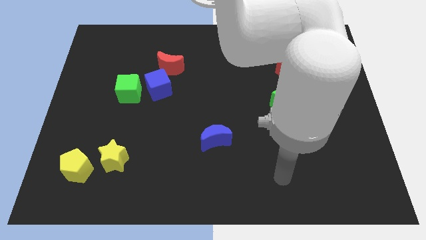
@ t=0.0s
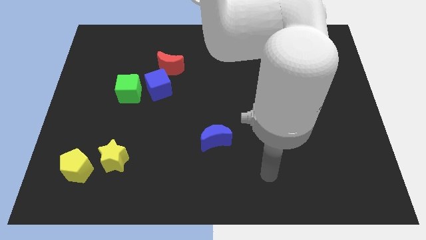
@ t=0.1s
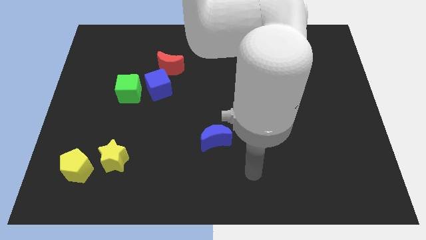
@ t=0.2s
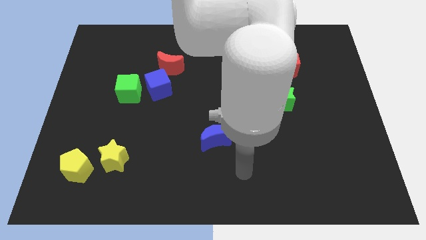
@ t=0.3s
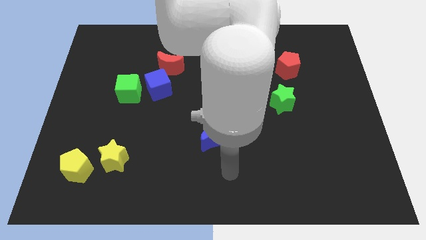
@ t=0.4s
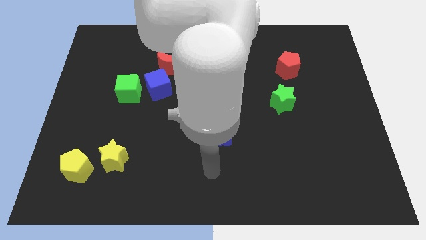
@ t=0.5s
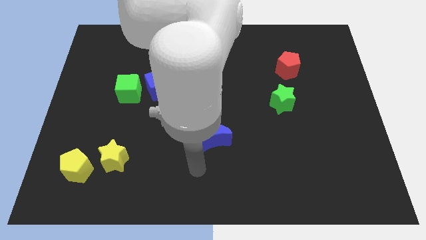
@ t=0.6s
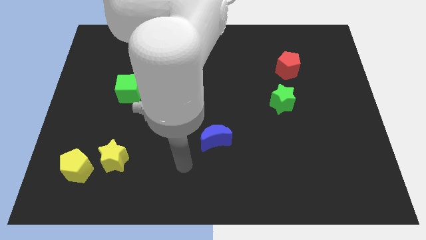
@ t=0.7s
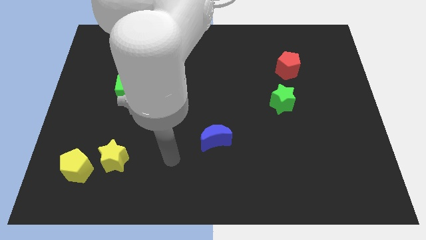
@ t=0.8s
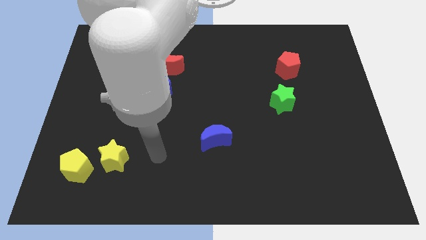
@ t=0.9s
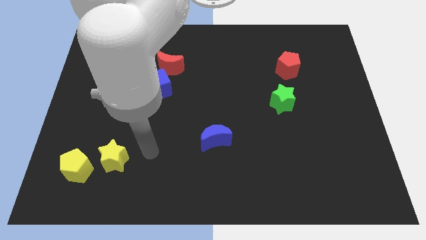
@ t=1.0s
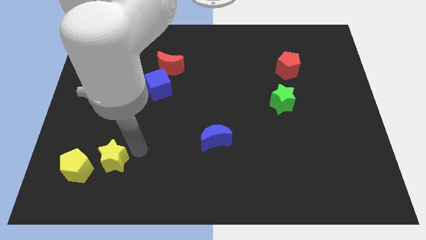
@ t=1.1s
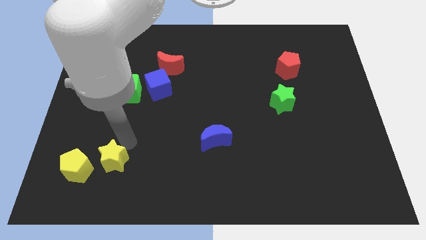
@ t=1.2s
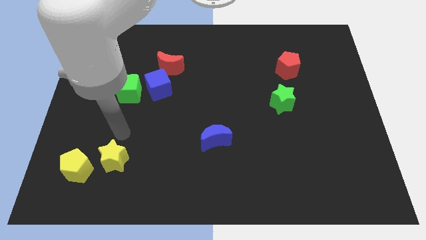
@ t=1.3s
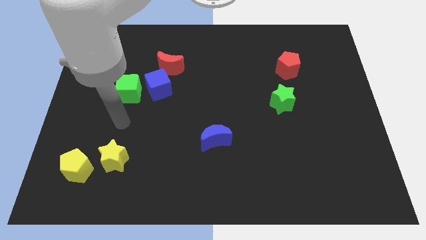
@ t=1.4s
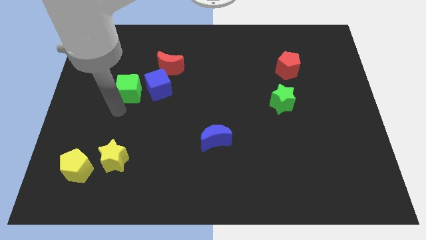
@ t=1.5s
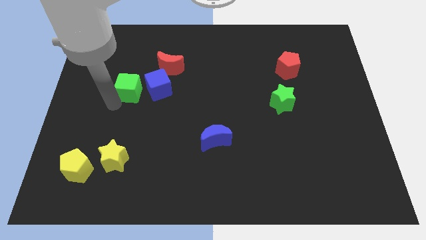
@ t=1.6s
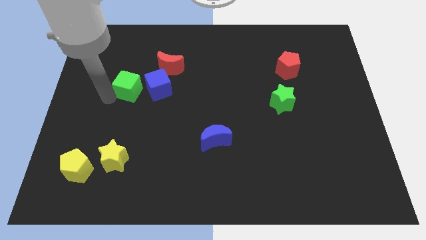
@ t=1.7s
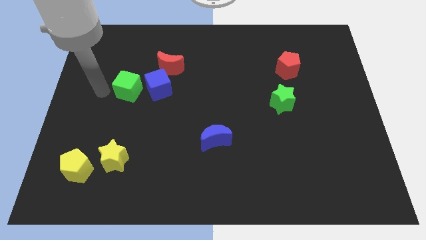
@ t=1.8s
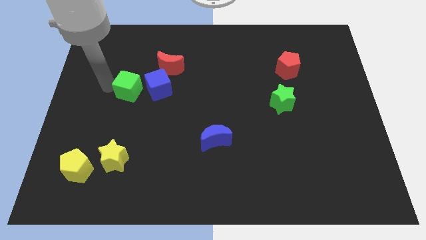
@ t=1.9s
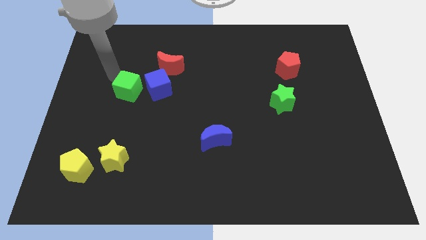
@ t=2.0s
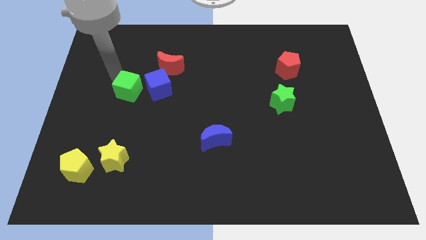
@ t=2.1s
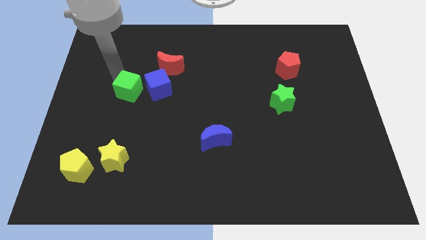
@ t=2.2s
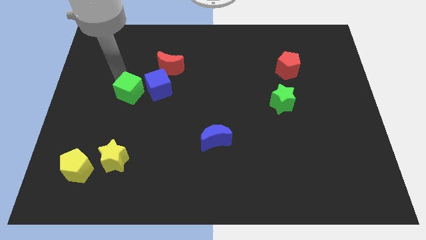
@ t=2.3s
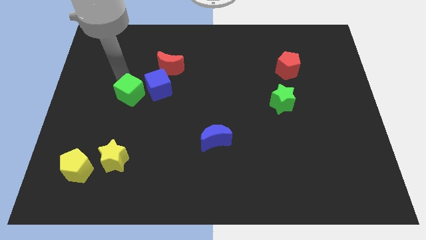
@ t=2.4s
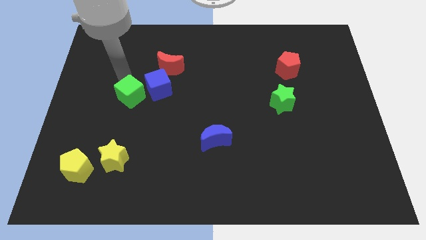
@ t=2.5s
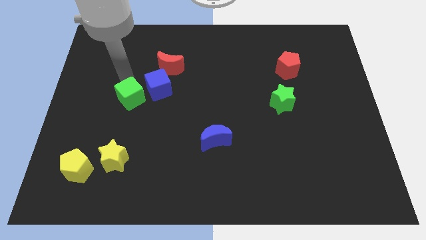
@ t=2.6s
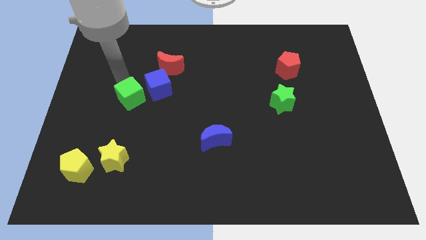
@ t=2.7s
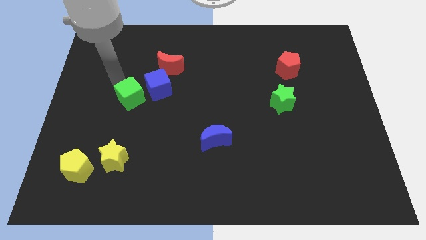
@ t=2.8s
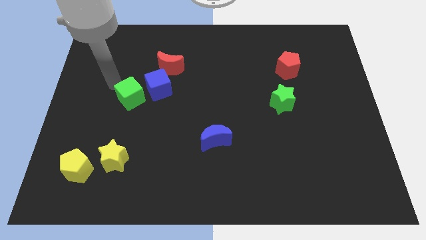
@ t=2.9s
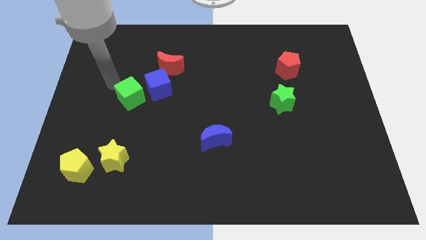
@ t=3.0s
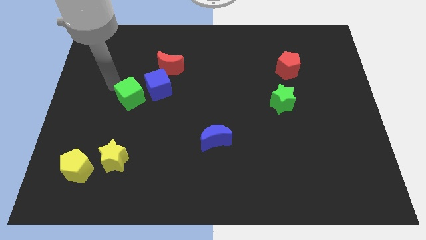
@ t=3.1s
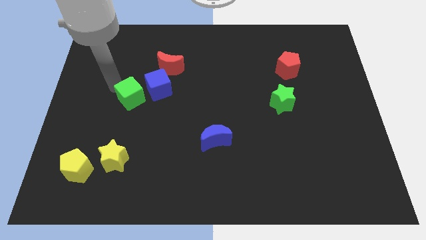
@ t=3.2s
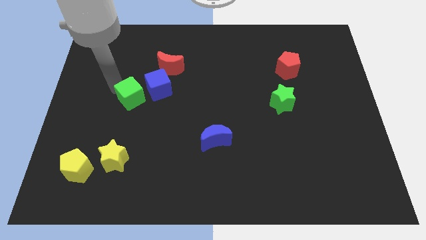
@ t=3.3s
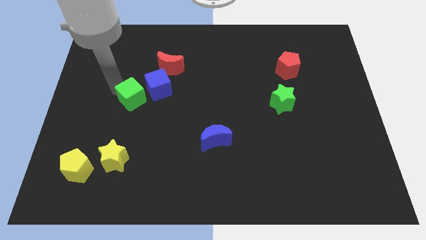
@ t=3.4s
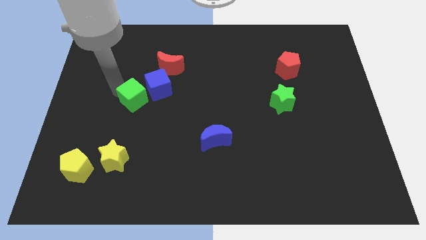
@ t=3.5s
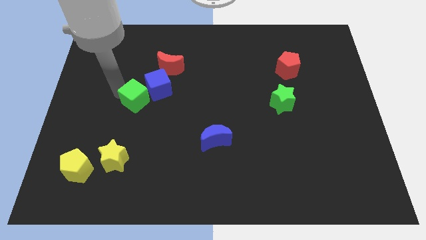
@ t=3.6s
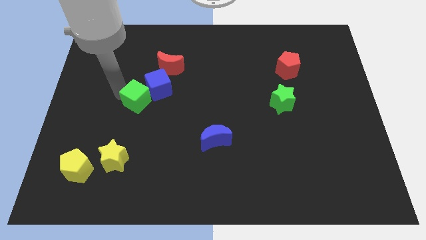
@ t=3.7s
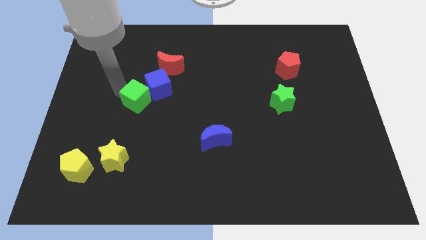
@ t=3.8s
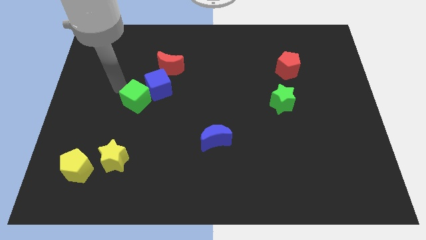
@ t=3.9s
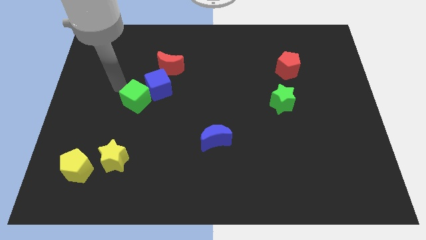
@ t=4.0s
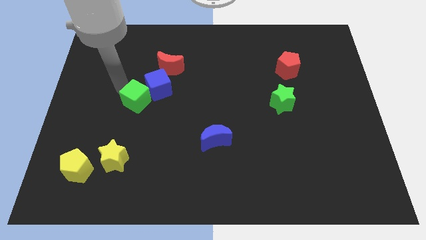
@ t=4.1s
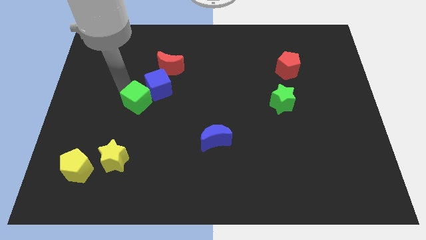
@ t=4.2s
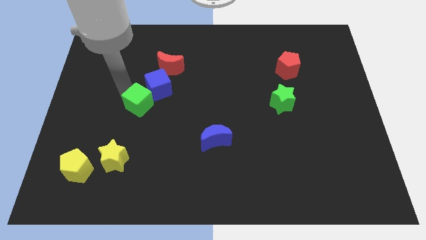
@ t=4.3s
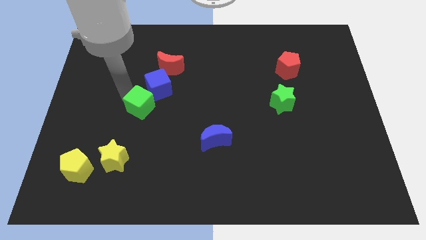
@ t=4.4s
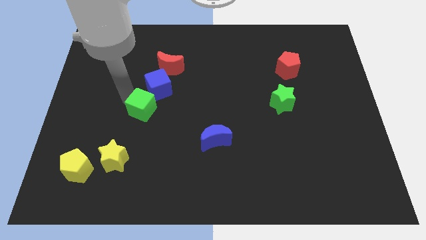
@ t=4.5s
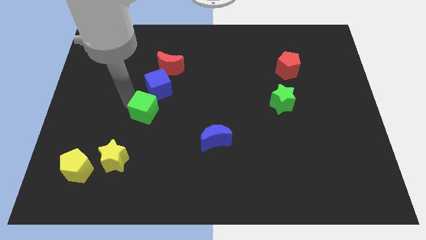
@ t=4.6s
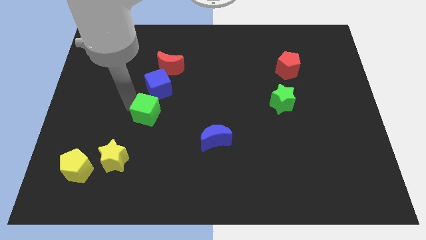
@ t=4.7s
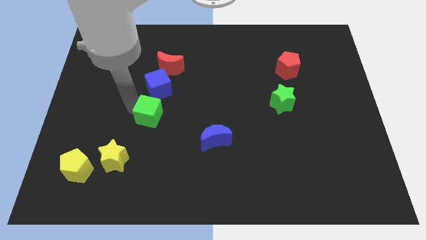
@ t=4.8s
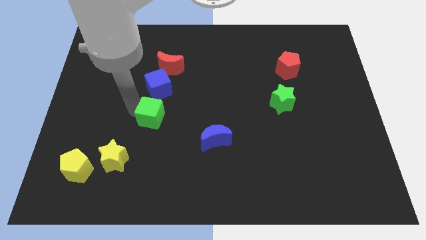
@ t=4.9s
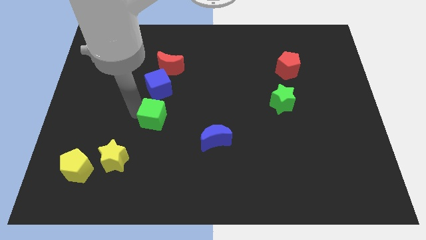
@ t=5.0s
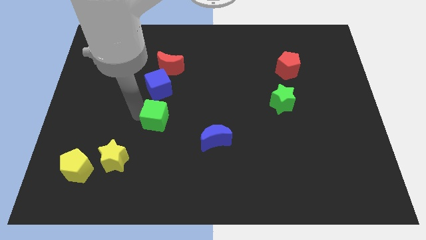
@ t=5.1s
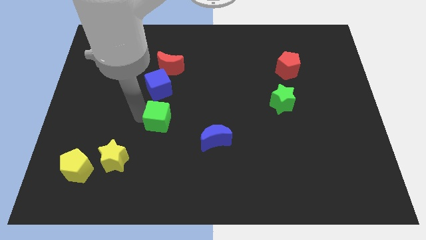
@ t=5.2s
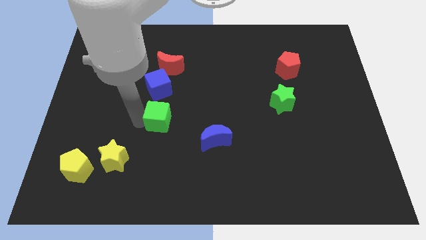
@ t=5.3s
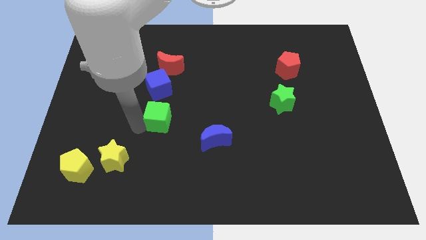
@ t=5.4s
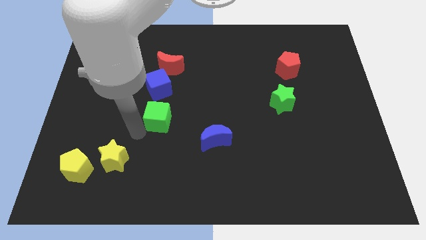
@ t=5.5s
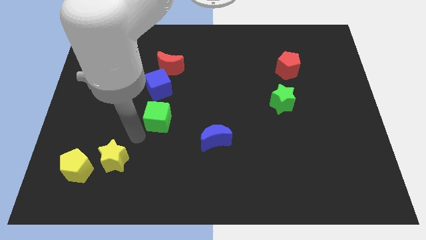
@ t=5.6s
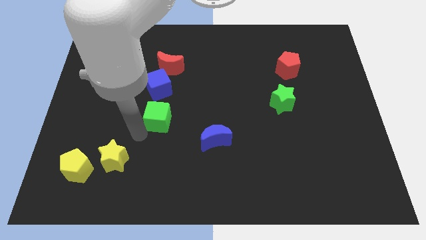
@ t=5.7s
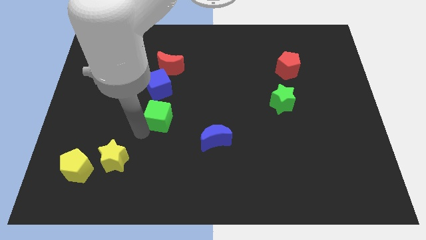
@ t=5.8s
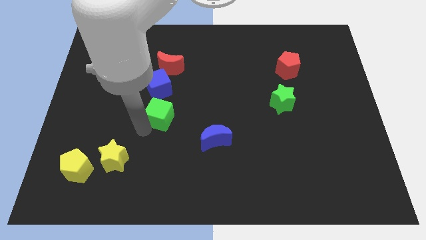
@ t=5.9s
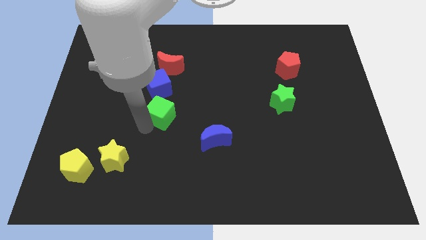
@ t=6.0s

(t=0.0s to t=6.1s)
move the green cube to the bottom right of the blue cube

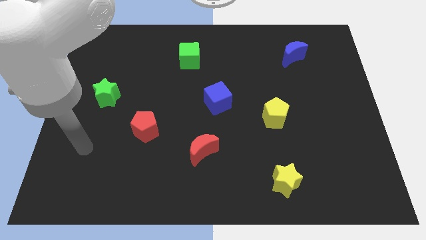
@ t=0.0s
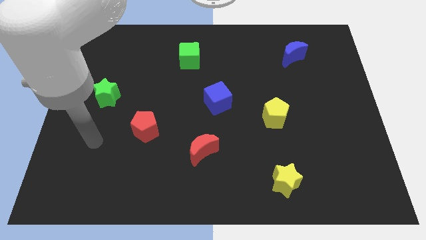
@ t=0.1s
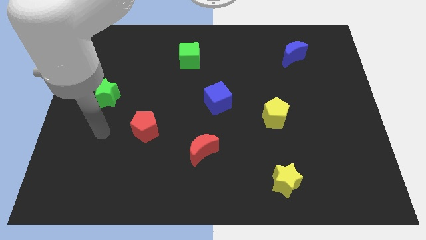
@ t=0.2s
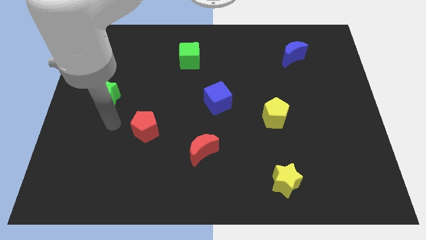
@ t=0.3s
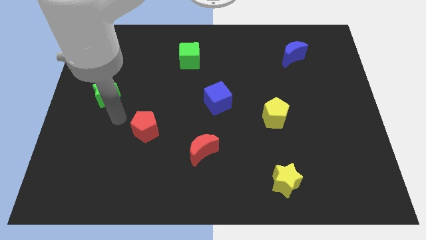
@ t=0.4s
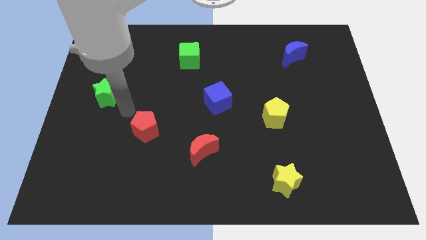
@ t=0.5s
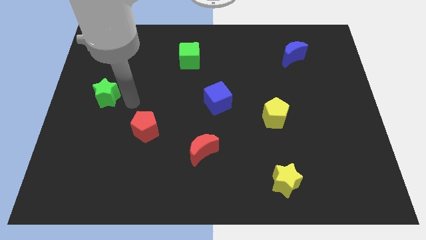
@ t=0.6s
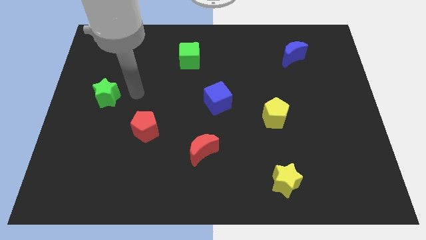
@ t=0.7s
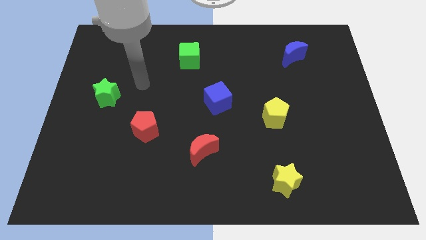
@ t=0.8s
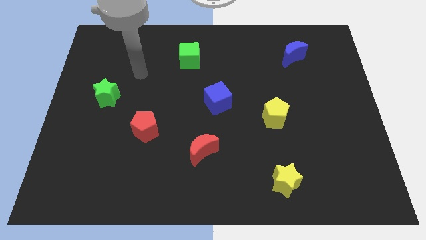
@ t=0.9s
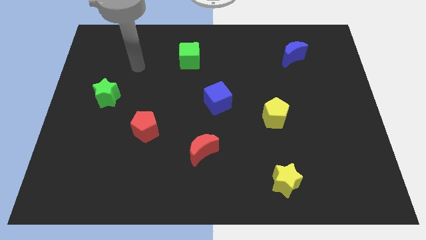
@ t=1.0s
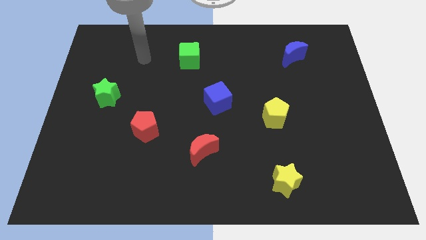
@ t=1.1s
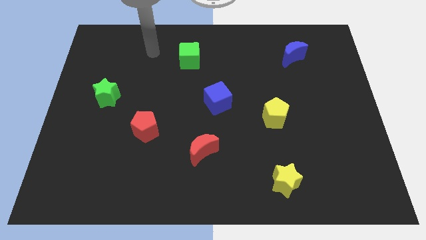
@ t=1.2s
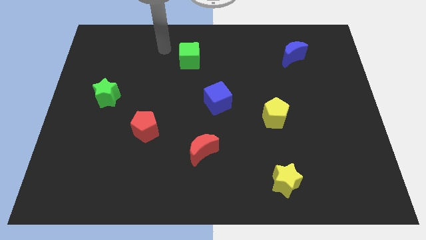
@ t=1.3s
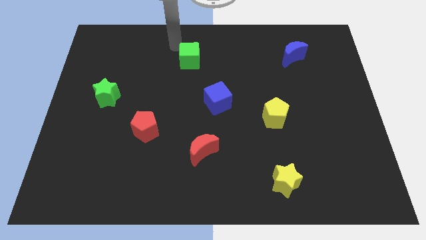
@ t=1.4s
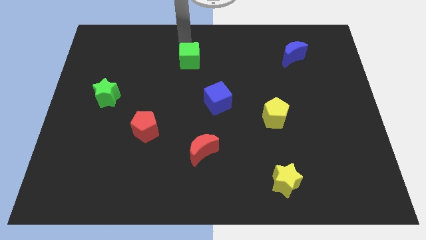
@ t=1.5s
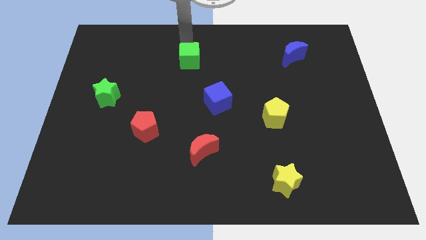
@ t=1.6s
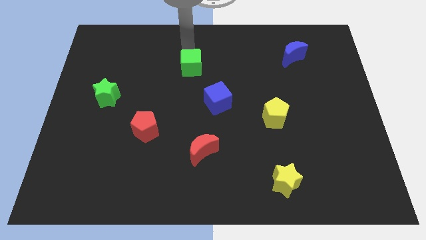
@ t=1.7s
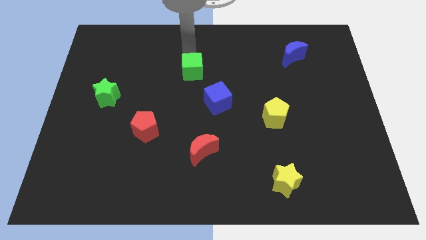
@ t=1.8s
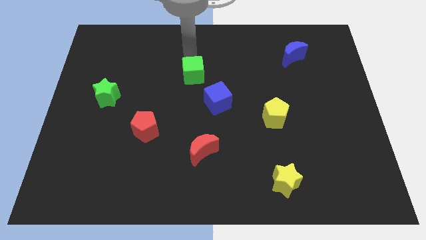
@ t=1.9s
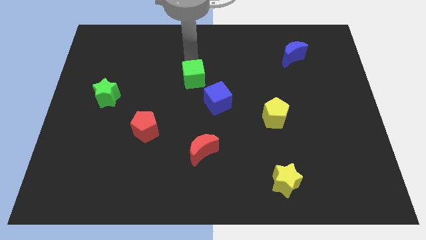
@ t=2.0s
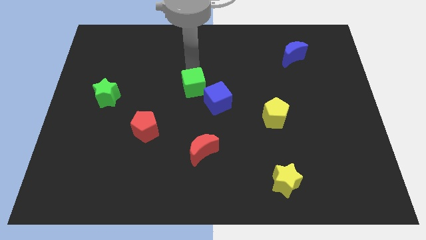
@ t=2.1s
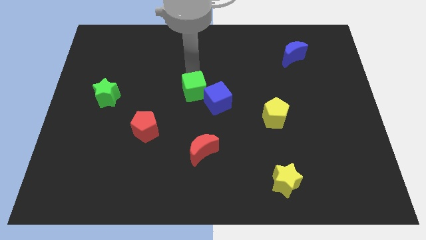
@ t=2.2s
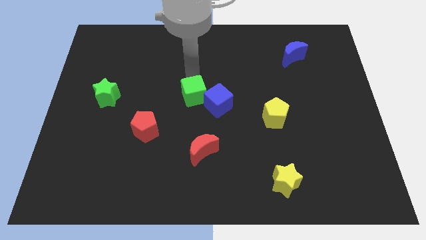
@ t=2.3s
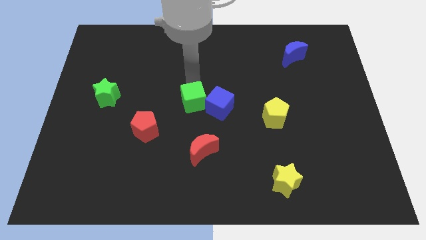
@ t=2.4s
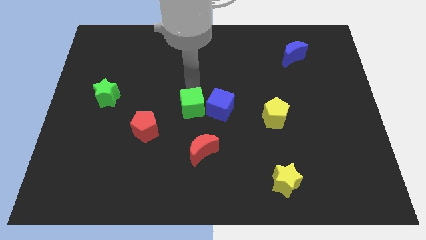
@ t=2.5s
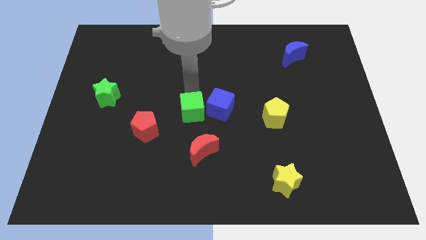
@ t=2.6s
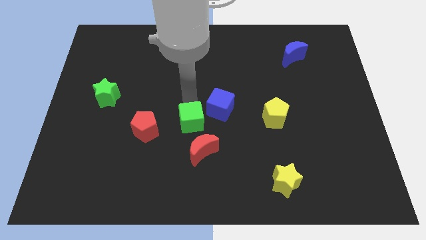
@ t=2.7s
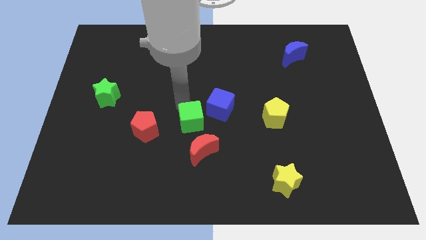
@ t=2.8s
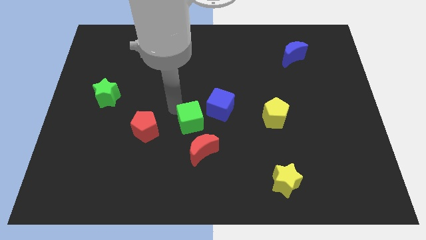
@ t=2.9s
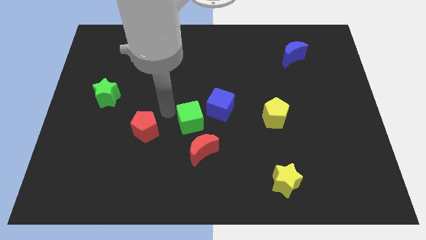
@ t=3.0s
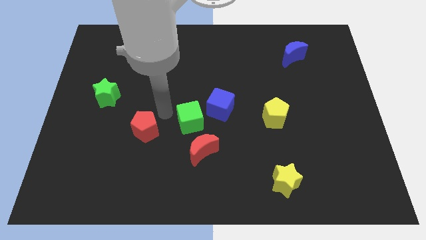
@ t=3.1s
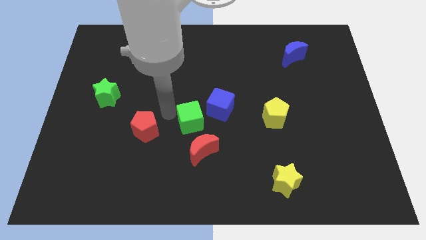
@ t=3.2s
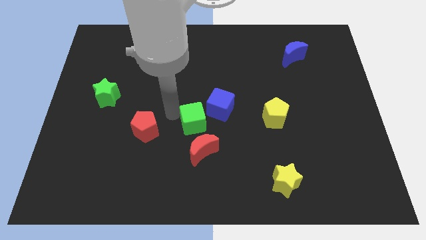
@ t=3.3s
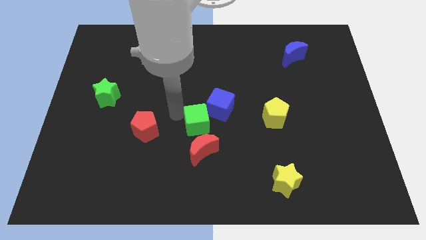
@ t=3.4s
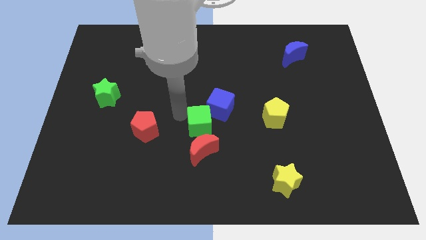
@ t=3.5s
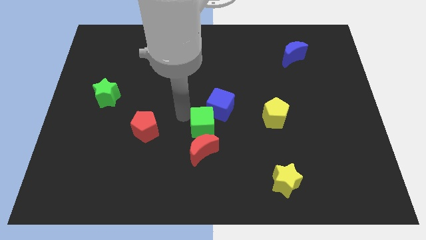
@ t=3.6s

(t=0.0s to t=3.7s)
move the green cube to the top right side of the red moon
